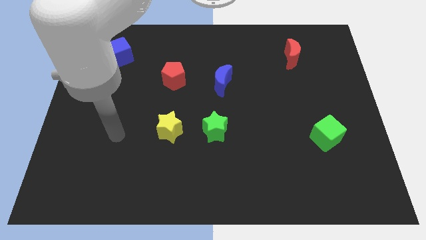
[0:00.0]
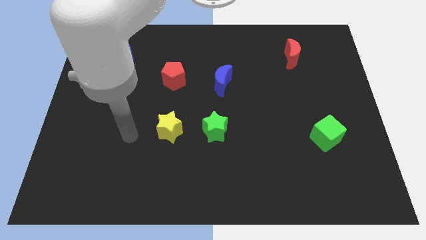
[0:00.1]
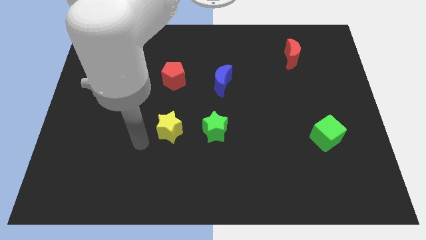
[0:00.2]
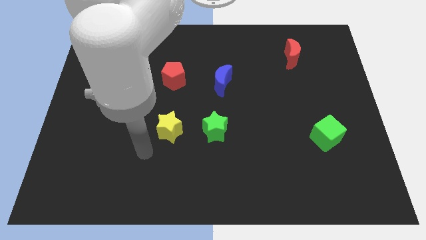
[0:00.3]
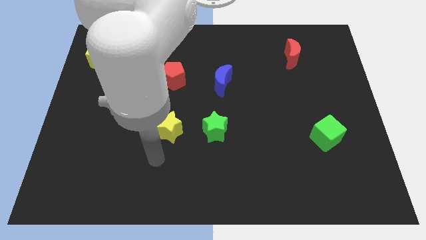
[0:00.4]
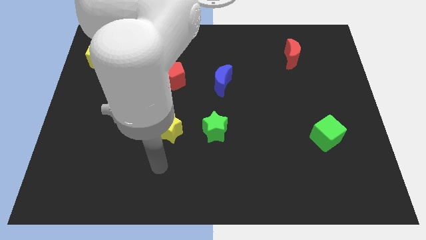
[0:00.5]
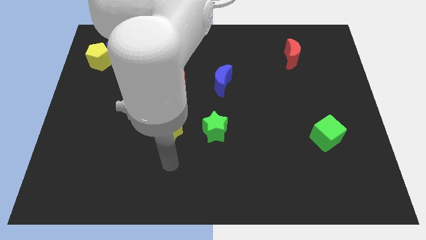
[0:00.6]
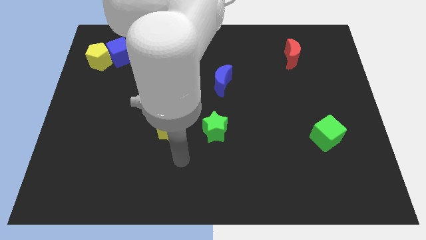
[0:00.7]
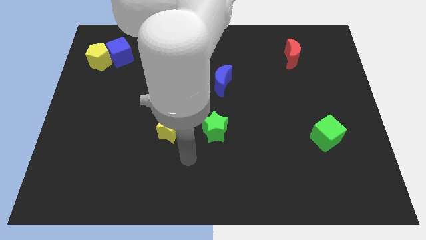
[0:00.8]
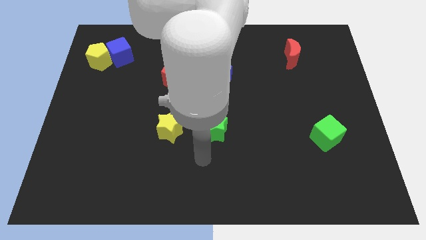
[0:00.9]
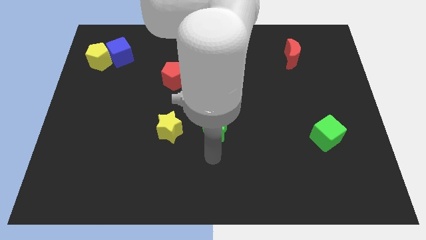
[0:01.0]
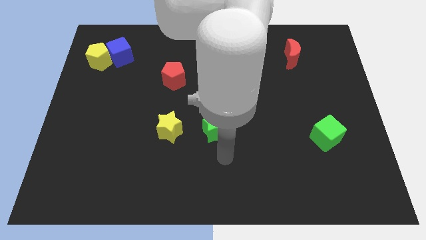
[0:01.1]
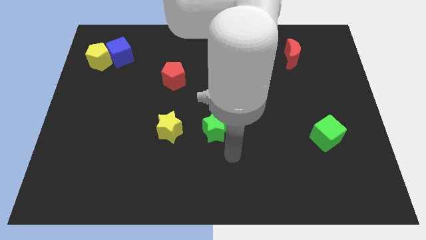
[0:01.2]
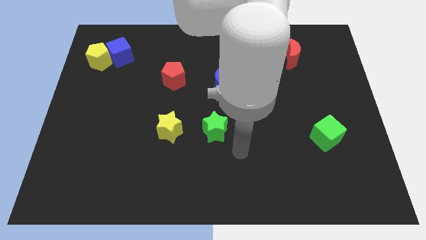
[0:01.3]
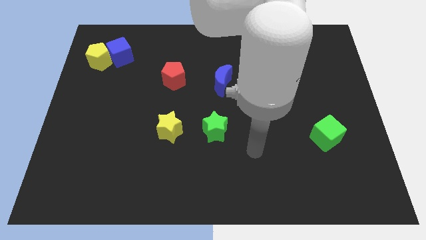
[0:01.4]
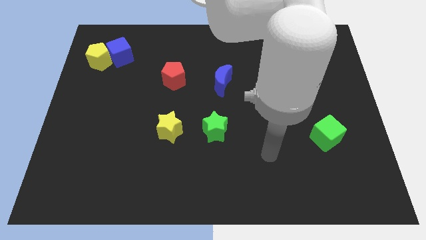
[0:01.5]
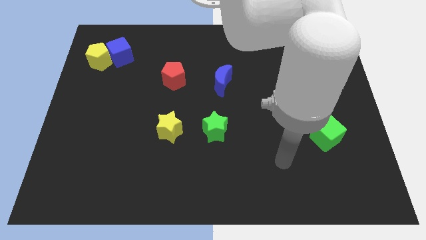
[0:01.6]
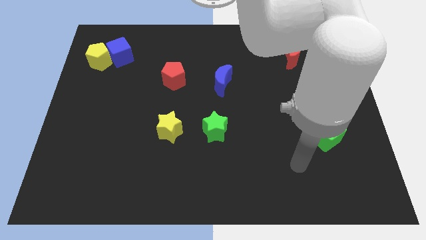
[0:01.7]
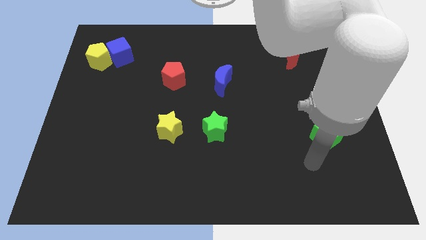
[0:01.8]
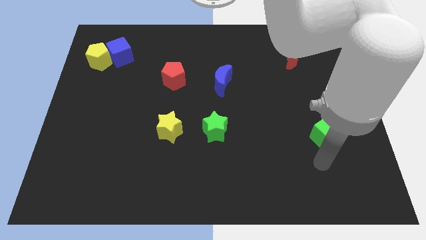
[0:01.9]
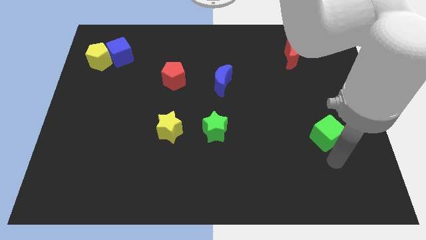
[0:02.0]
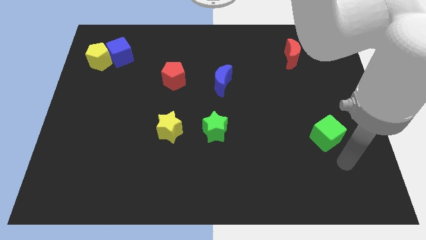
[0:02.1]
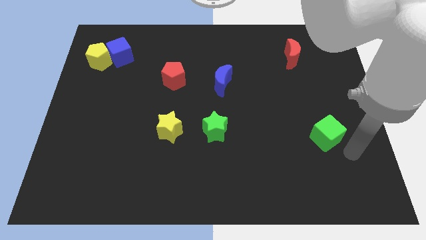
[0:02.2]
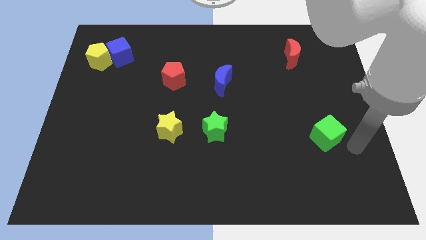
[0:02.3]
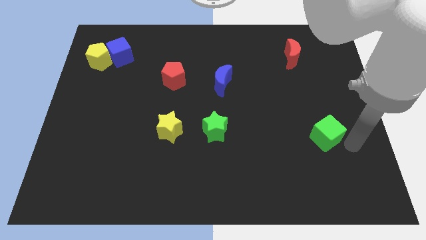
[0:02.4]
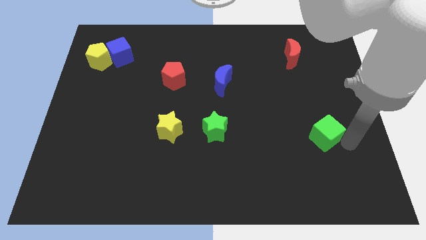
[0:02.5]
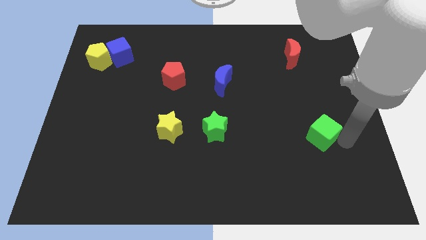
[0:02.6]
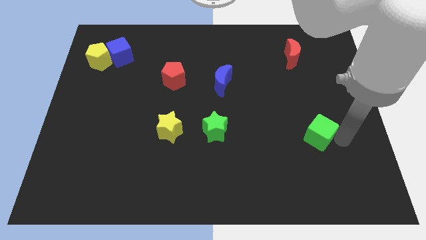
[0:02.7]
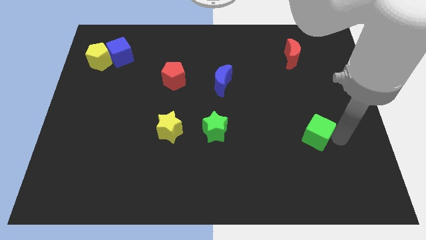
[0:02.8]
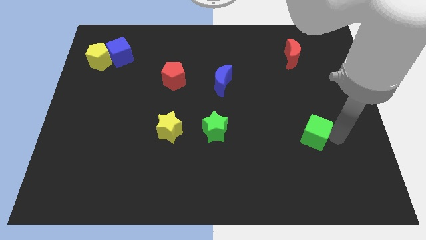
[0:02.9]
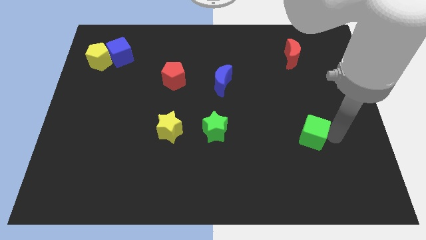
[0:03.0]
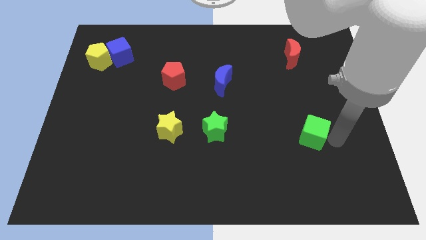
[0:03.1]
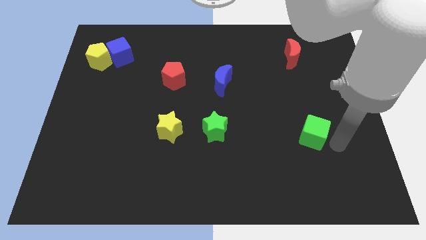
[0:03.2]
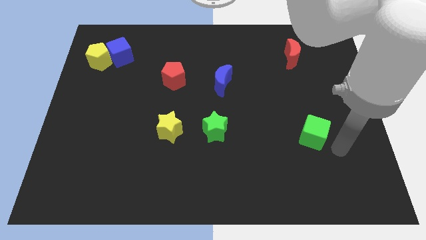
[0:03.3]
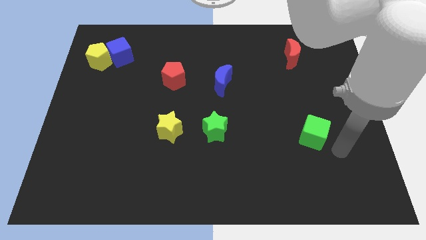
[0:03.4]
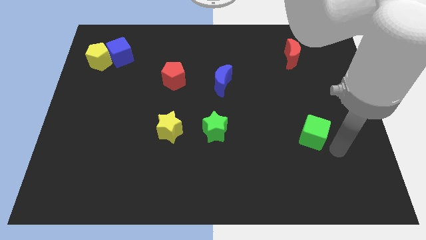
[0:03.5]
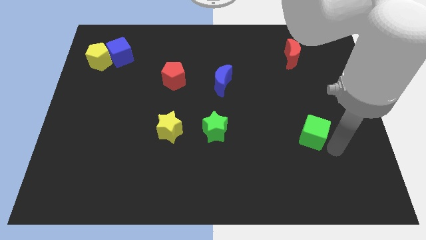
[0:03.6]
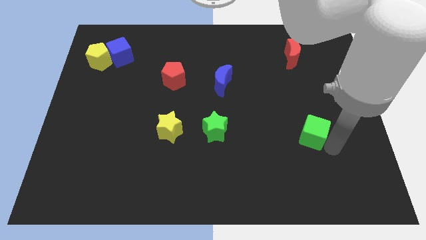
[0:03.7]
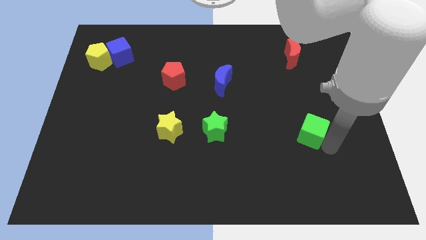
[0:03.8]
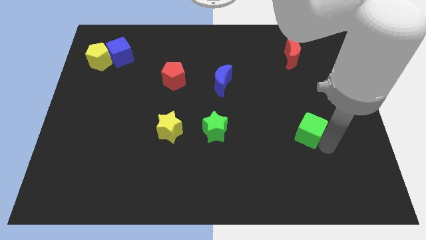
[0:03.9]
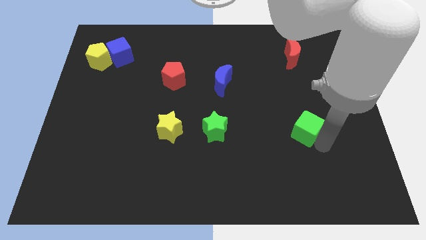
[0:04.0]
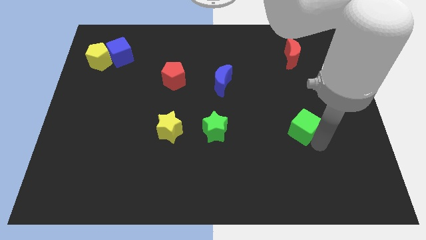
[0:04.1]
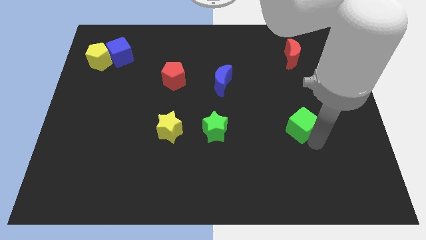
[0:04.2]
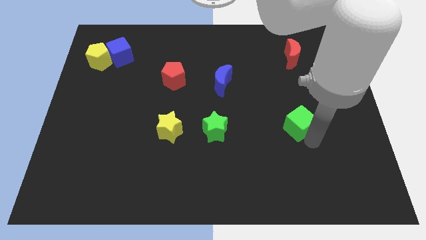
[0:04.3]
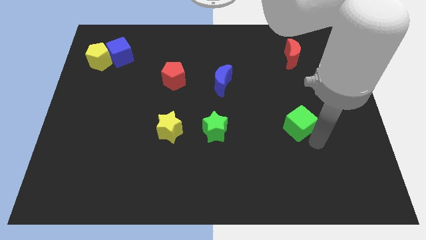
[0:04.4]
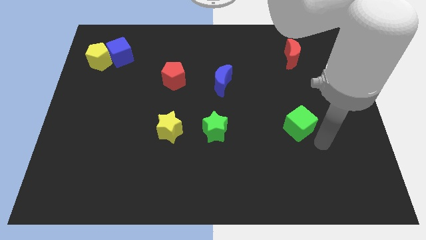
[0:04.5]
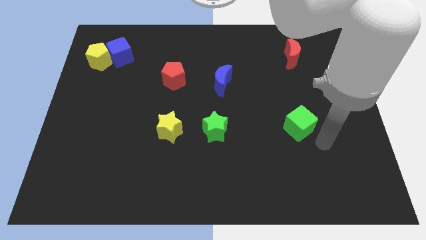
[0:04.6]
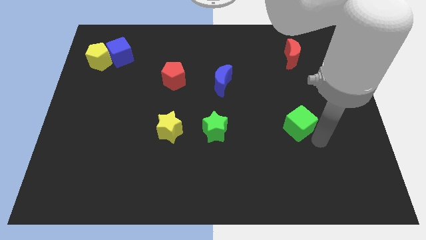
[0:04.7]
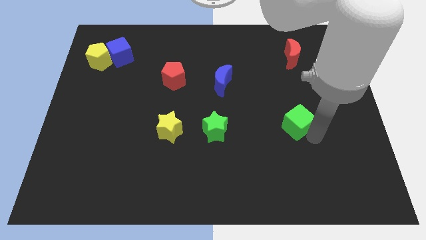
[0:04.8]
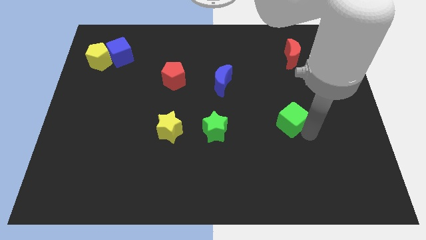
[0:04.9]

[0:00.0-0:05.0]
slide the green cube a little bit diagonally upwards and to the left

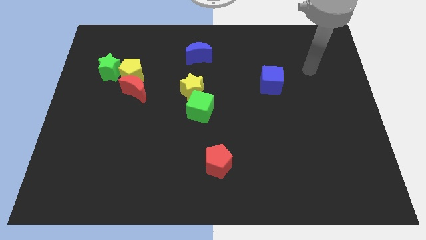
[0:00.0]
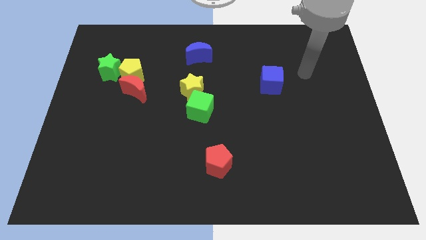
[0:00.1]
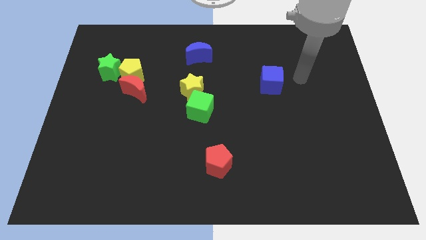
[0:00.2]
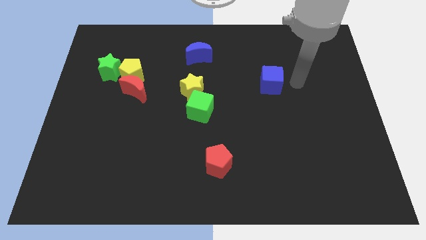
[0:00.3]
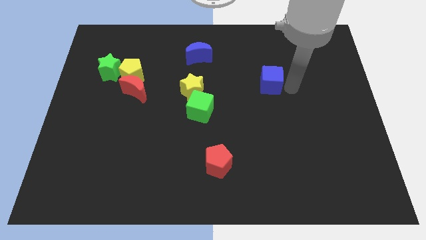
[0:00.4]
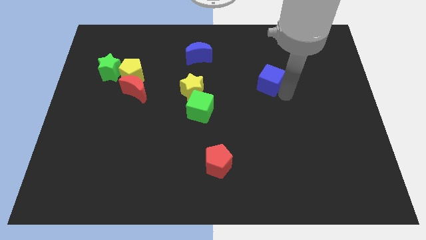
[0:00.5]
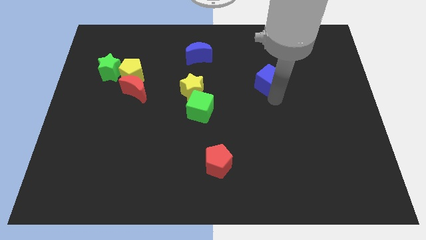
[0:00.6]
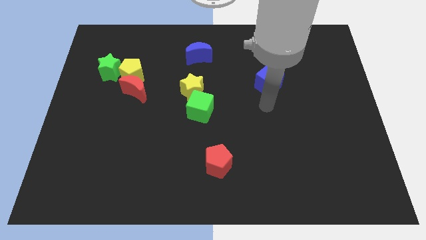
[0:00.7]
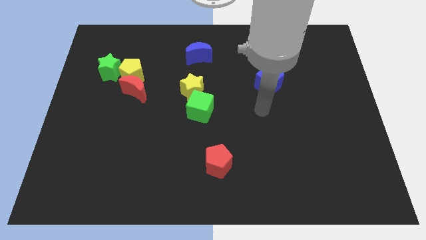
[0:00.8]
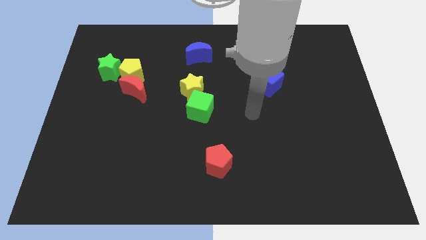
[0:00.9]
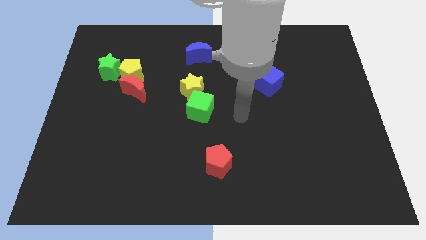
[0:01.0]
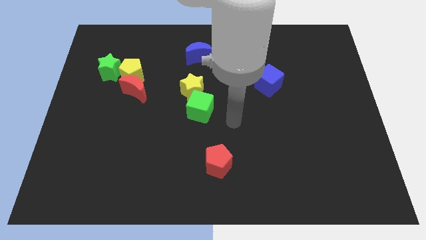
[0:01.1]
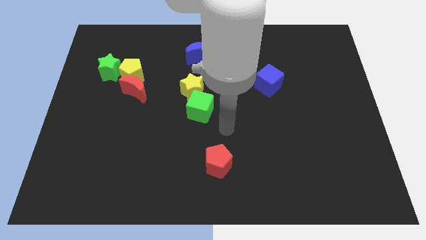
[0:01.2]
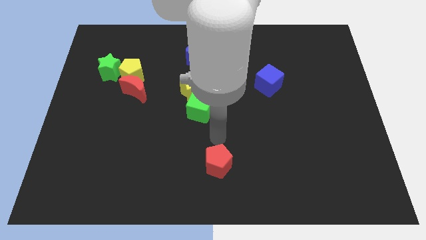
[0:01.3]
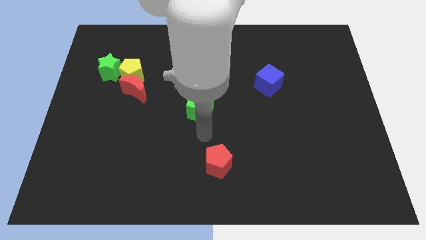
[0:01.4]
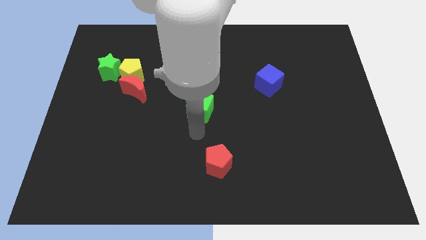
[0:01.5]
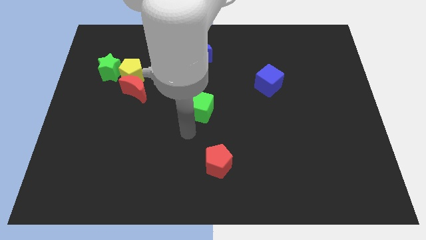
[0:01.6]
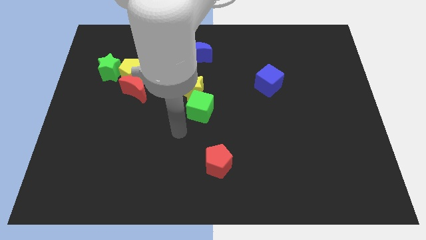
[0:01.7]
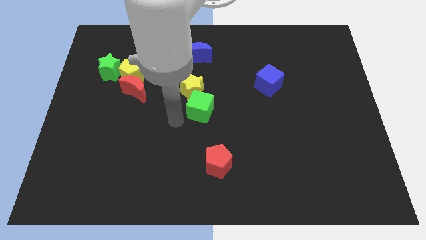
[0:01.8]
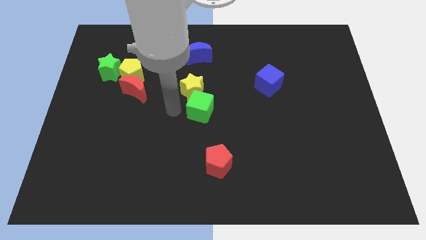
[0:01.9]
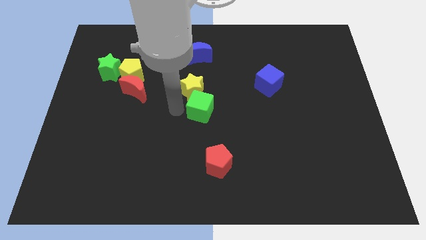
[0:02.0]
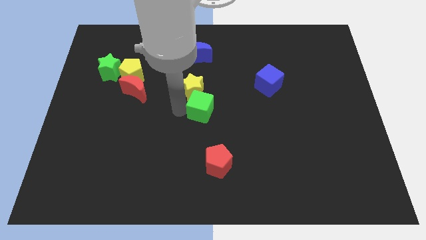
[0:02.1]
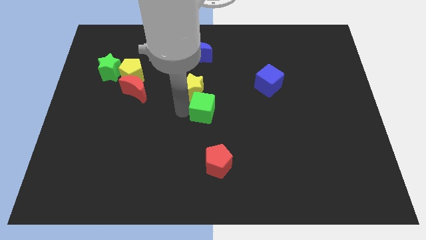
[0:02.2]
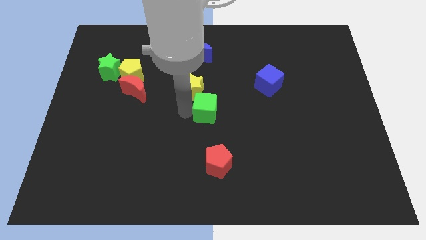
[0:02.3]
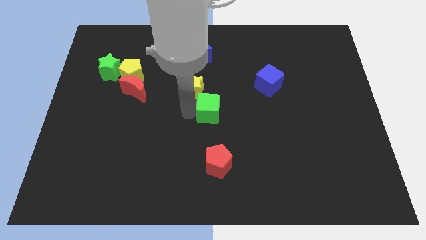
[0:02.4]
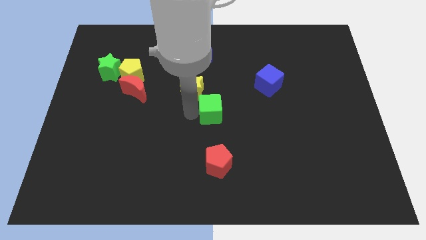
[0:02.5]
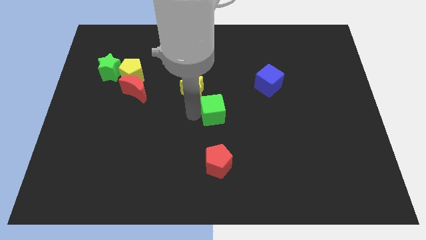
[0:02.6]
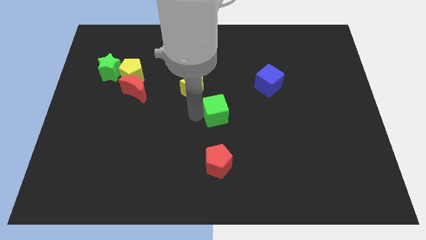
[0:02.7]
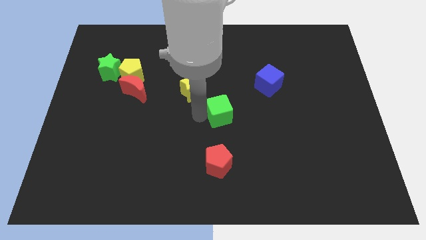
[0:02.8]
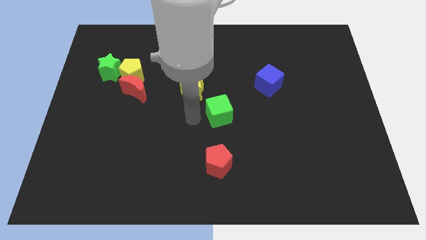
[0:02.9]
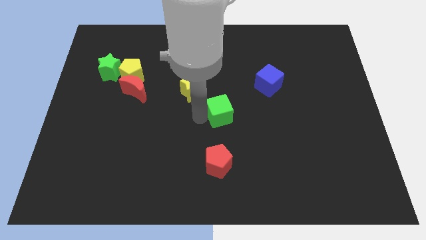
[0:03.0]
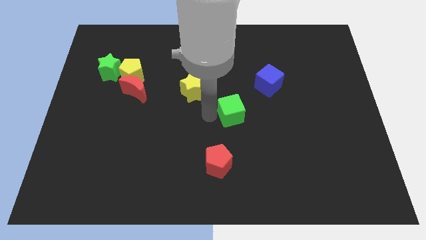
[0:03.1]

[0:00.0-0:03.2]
slightly slide the green cube right

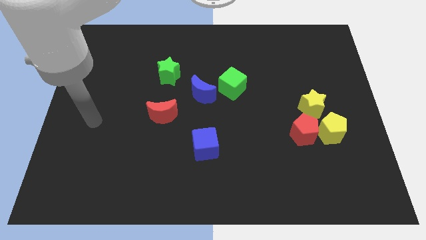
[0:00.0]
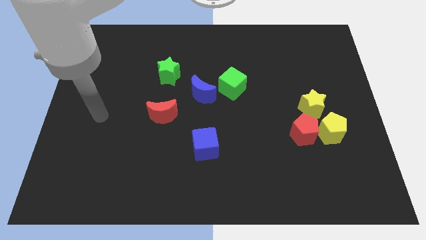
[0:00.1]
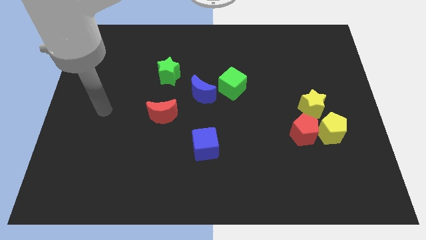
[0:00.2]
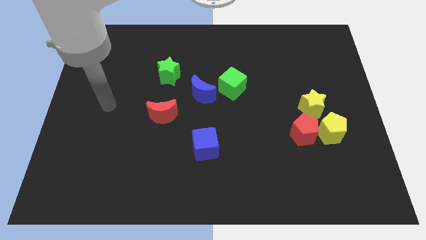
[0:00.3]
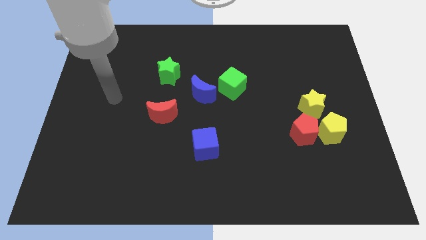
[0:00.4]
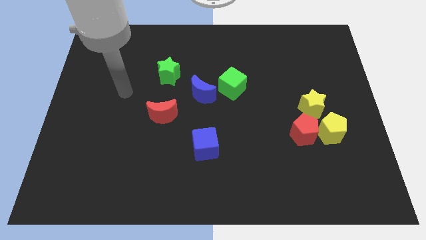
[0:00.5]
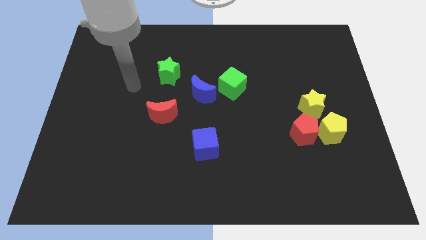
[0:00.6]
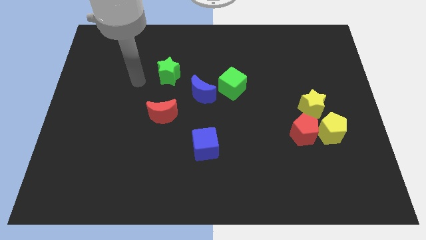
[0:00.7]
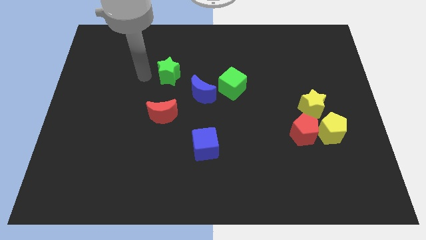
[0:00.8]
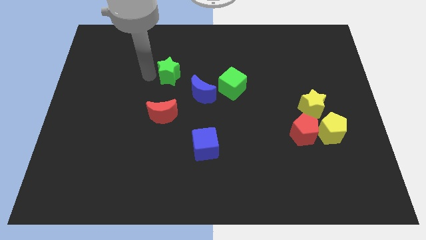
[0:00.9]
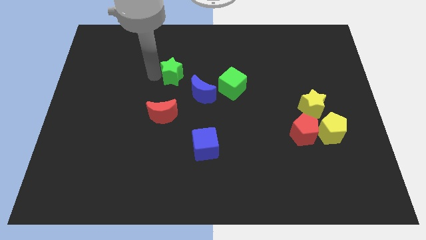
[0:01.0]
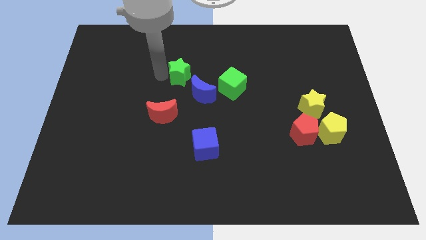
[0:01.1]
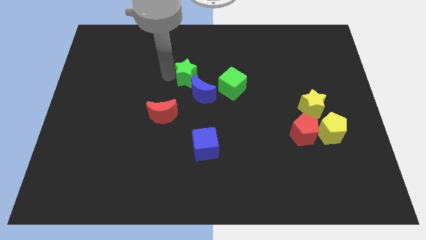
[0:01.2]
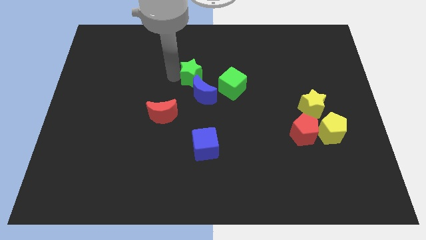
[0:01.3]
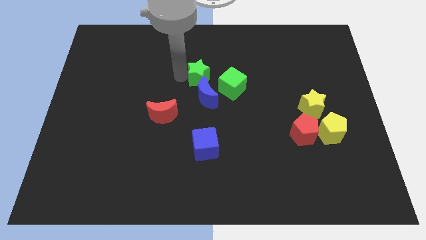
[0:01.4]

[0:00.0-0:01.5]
slightly move the green star right
